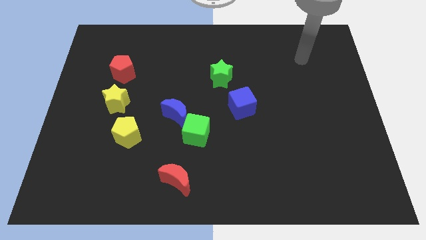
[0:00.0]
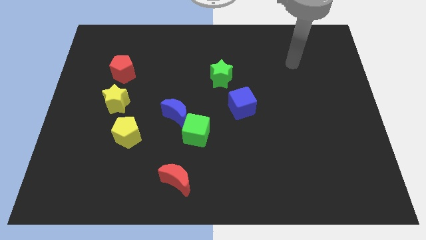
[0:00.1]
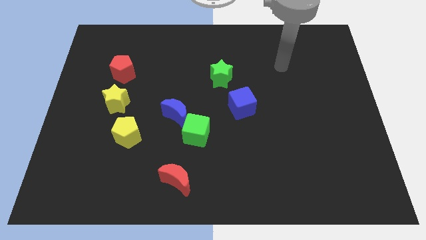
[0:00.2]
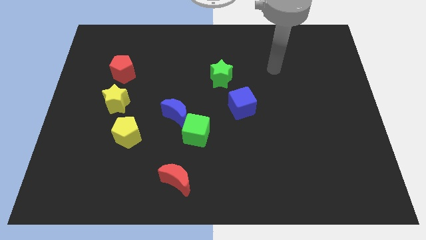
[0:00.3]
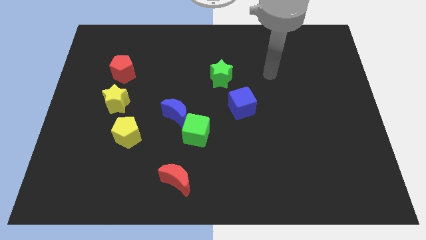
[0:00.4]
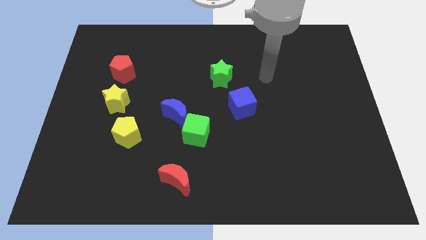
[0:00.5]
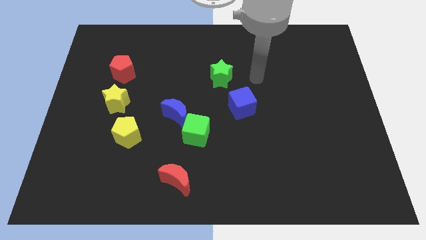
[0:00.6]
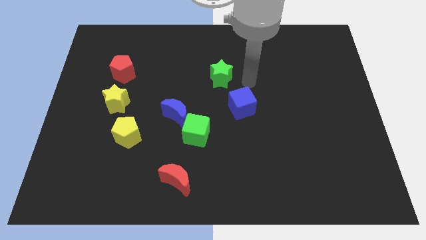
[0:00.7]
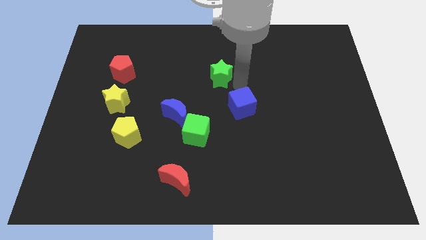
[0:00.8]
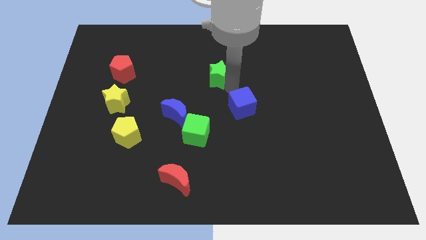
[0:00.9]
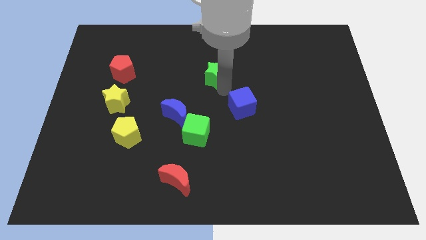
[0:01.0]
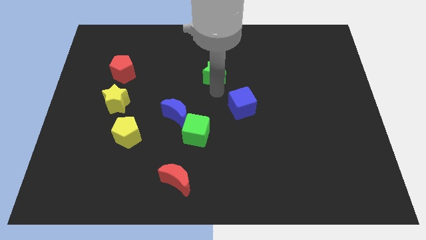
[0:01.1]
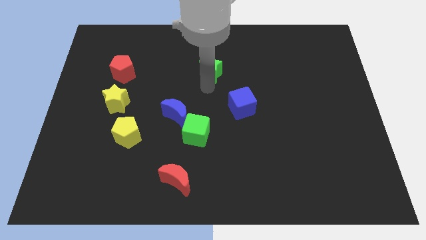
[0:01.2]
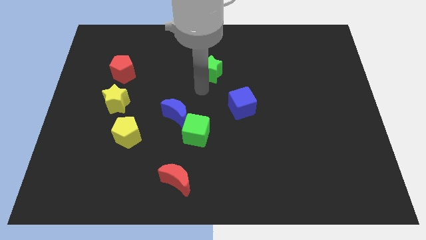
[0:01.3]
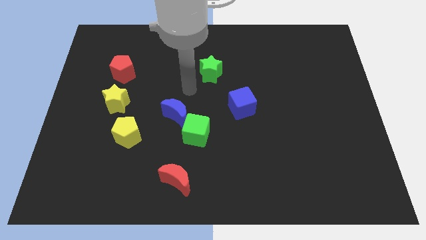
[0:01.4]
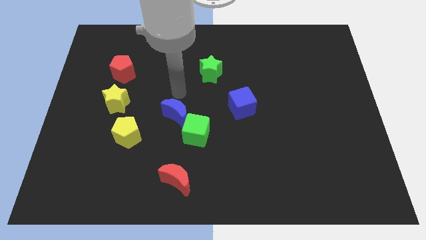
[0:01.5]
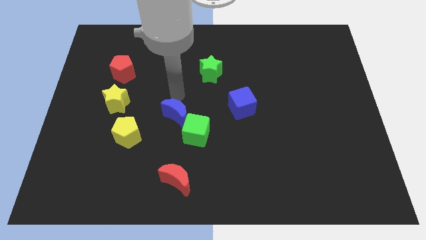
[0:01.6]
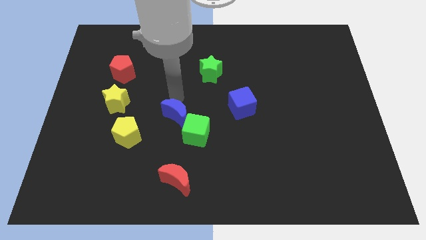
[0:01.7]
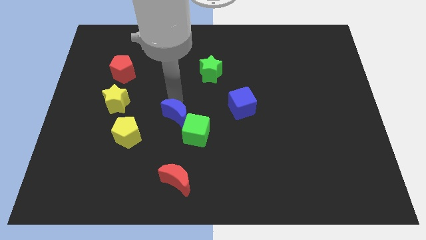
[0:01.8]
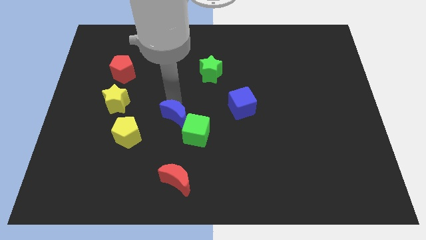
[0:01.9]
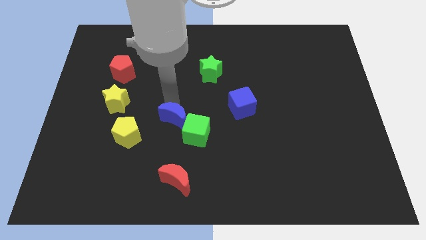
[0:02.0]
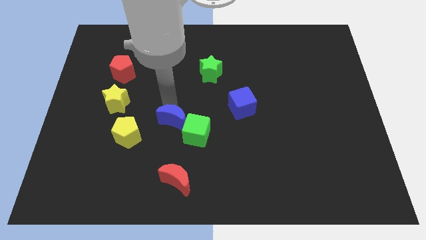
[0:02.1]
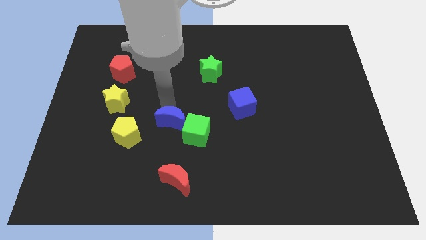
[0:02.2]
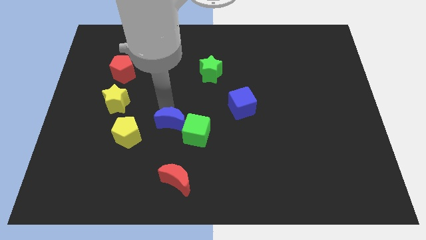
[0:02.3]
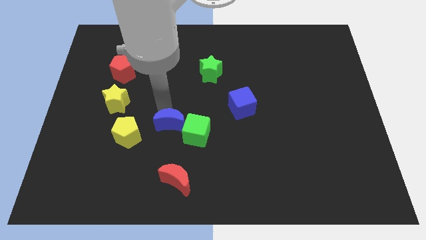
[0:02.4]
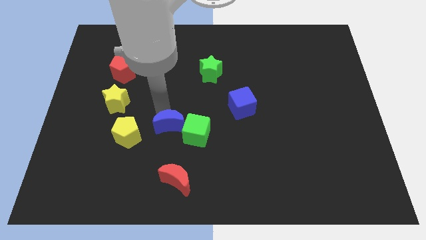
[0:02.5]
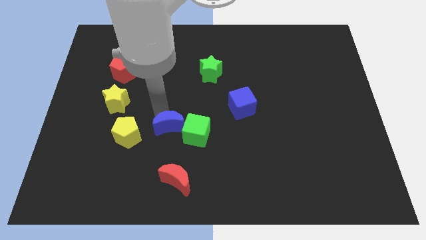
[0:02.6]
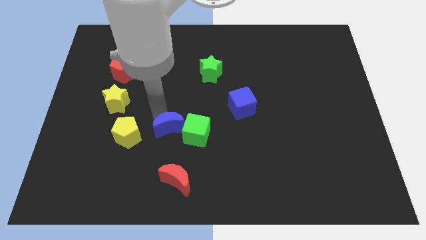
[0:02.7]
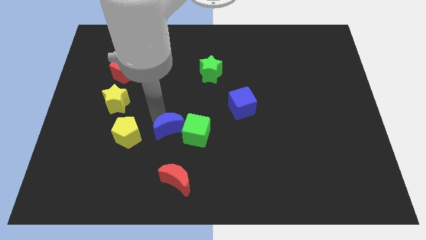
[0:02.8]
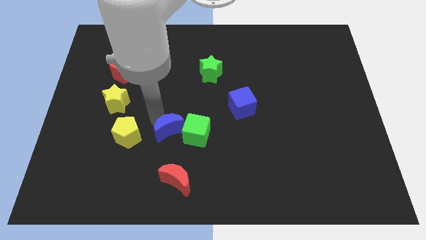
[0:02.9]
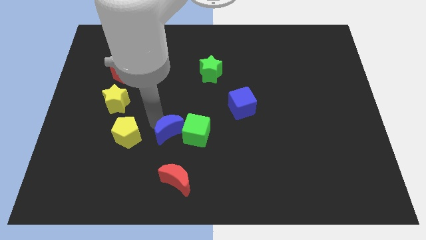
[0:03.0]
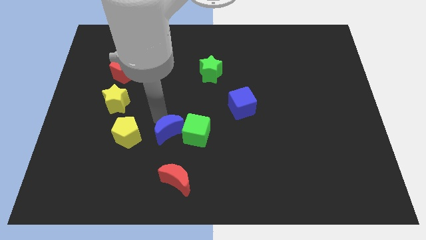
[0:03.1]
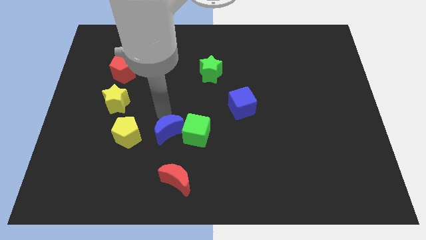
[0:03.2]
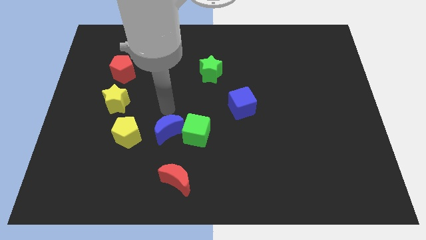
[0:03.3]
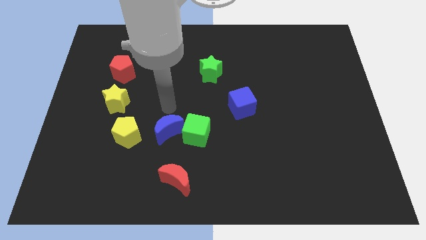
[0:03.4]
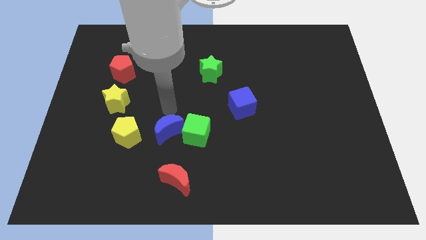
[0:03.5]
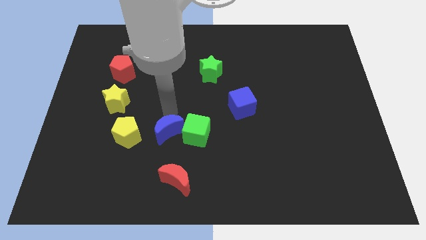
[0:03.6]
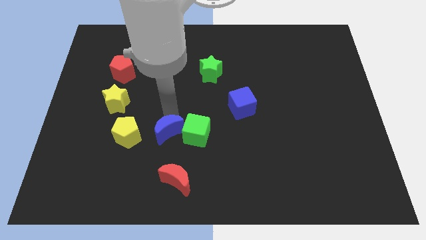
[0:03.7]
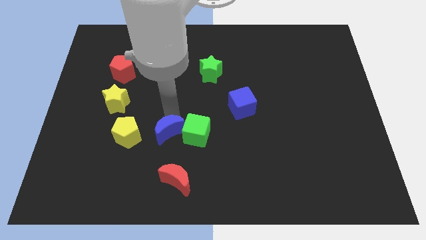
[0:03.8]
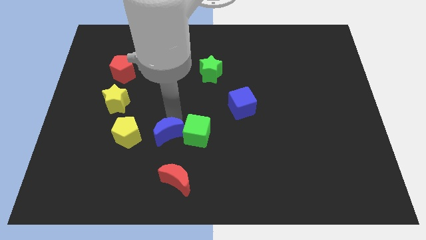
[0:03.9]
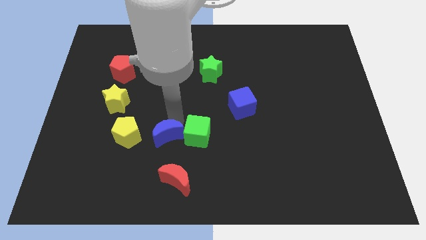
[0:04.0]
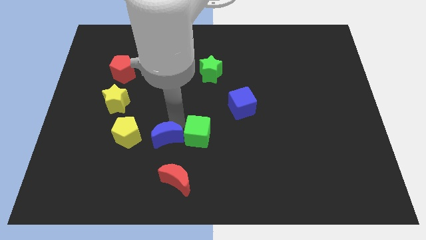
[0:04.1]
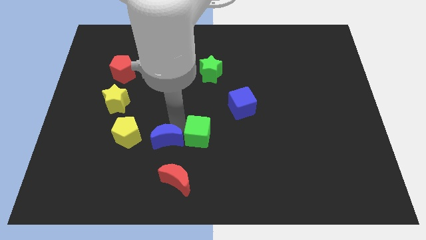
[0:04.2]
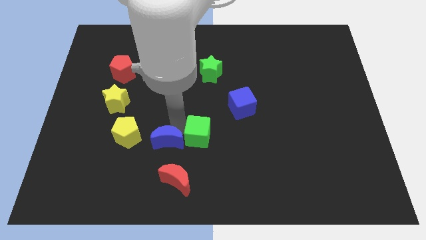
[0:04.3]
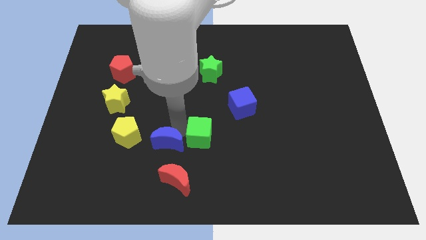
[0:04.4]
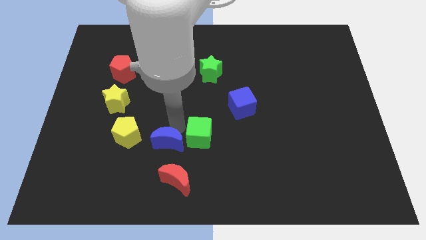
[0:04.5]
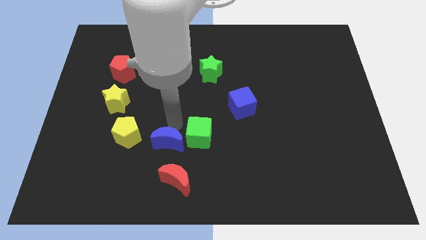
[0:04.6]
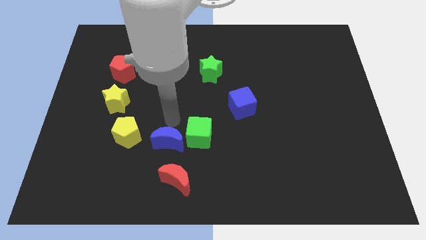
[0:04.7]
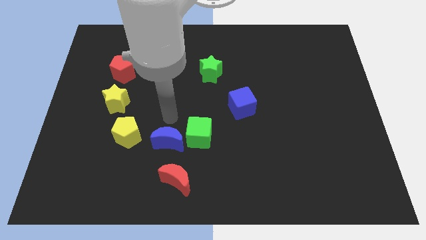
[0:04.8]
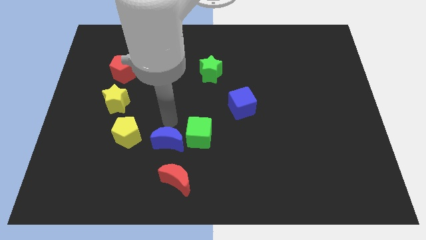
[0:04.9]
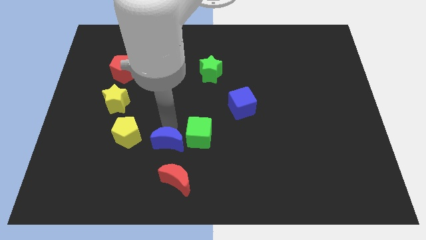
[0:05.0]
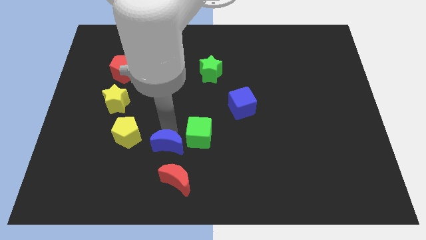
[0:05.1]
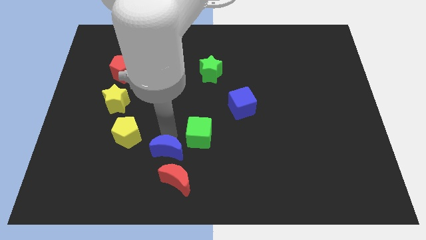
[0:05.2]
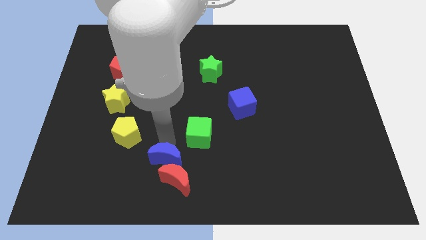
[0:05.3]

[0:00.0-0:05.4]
slide the blue moon towards the red moon

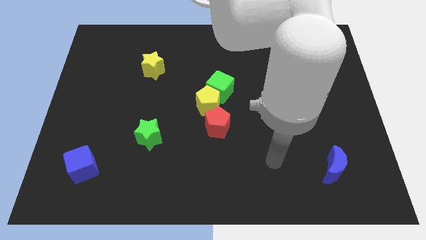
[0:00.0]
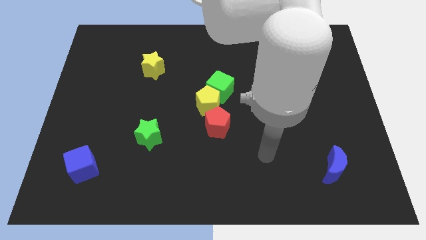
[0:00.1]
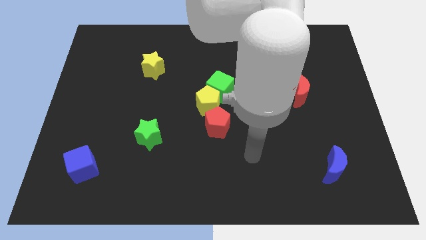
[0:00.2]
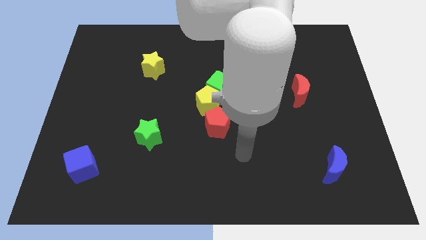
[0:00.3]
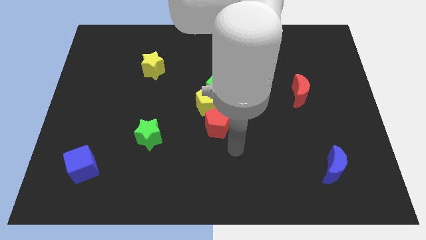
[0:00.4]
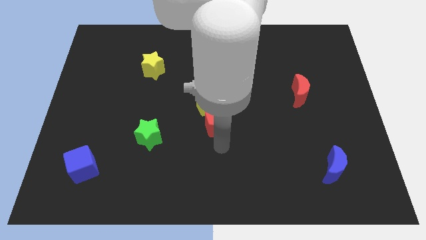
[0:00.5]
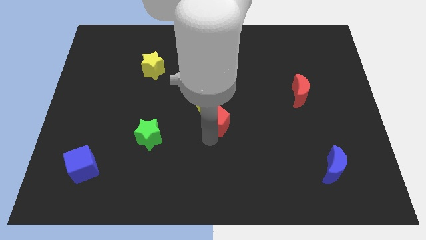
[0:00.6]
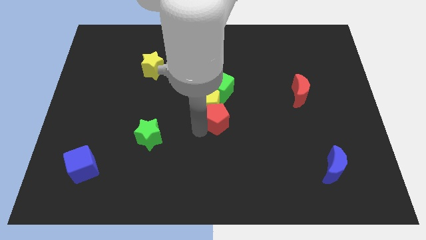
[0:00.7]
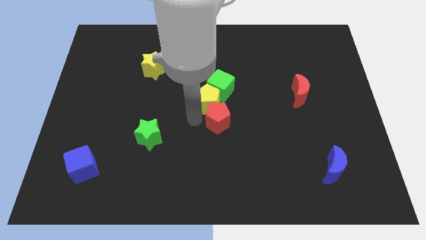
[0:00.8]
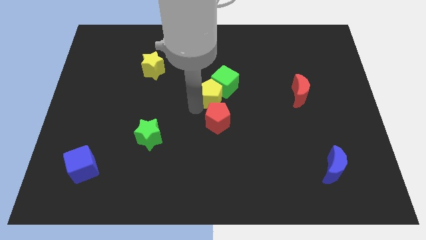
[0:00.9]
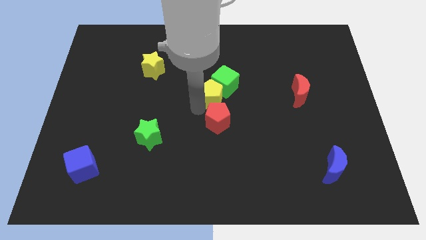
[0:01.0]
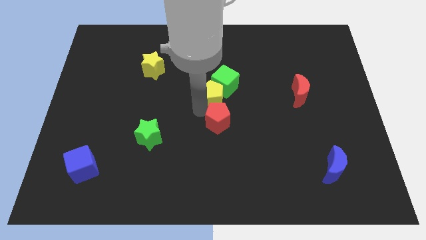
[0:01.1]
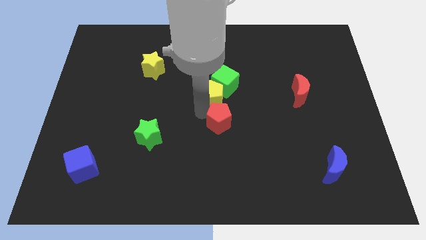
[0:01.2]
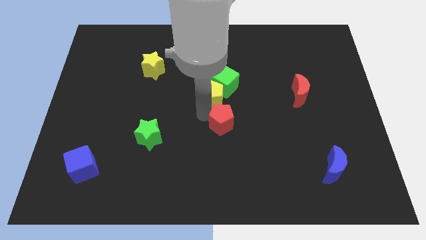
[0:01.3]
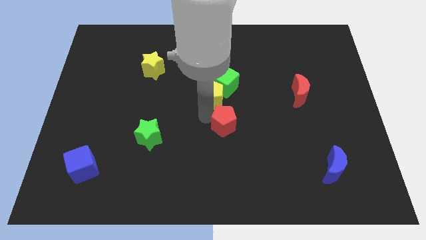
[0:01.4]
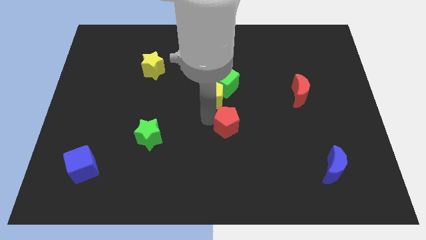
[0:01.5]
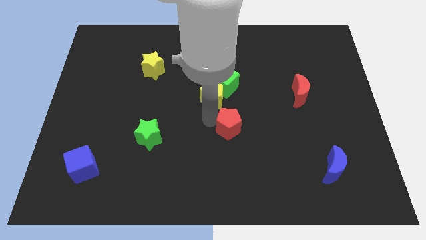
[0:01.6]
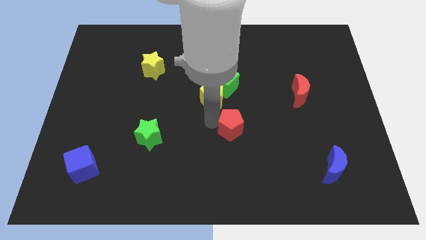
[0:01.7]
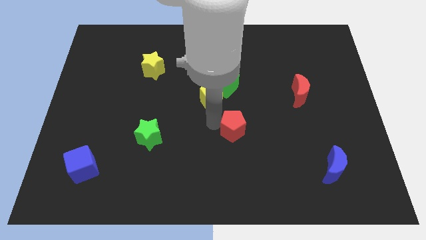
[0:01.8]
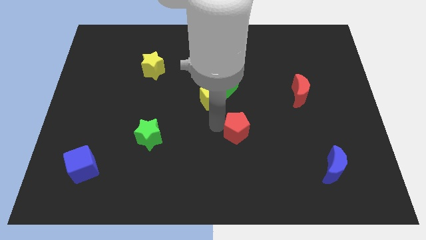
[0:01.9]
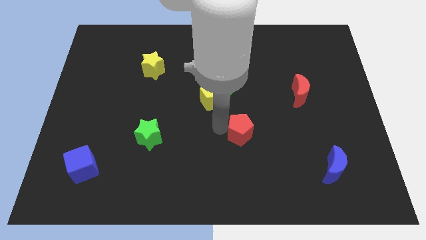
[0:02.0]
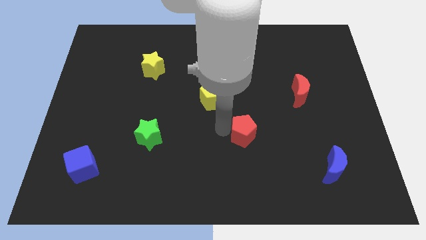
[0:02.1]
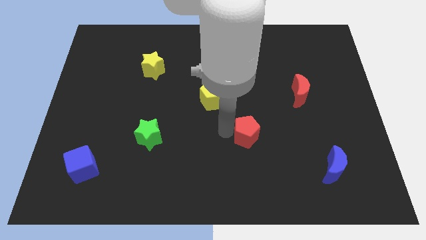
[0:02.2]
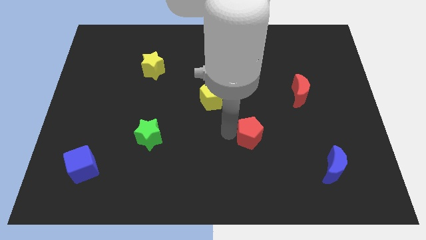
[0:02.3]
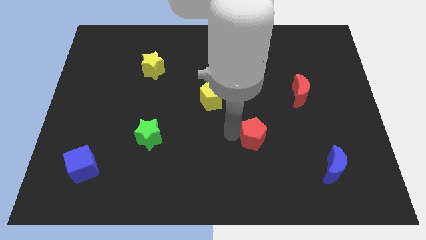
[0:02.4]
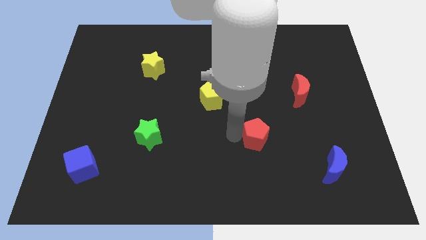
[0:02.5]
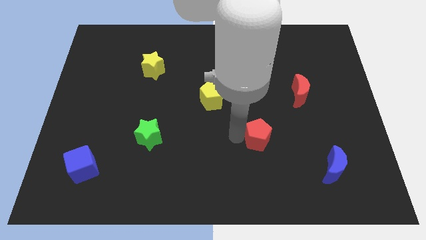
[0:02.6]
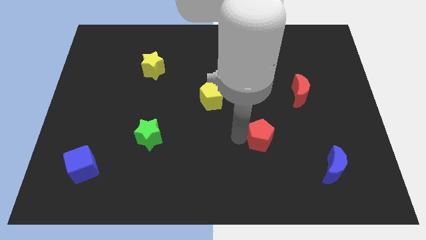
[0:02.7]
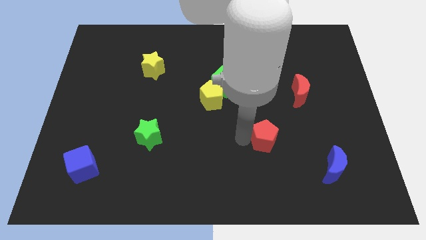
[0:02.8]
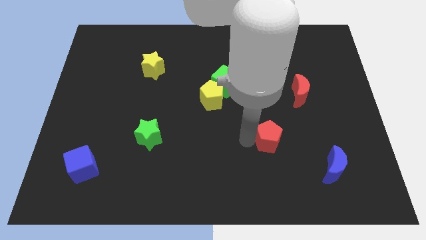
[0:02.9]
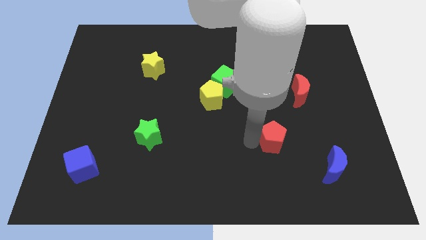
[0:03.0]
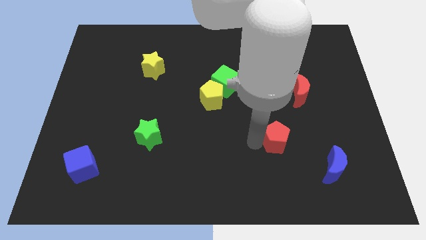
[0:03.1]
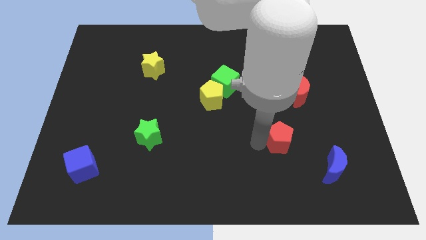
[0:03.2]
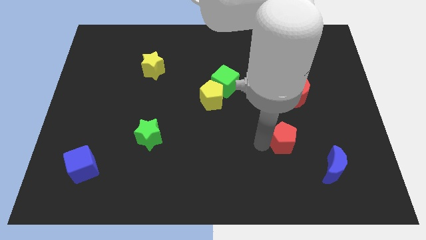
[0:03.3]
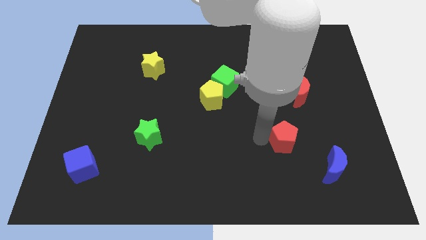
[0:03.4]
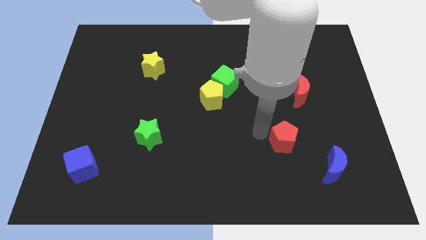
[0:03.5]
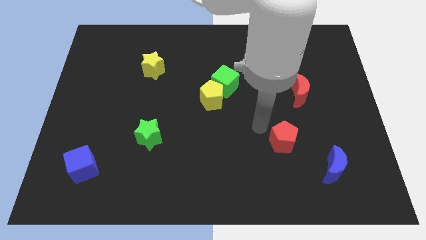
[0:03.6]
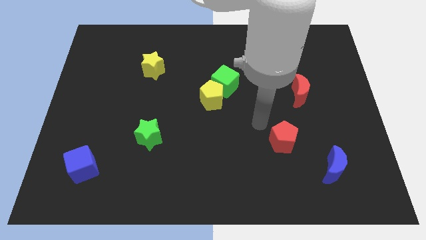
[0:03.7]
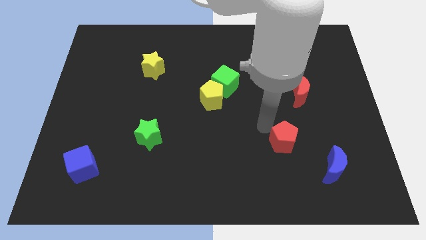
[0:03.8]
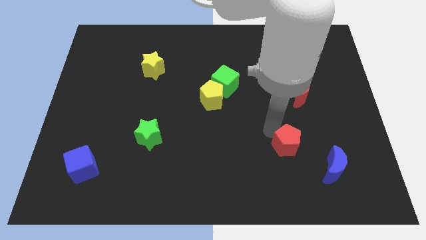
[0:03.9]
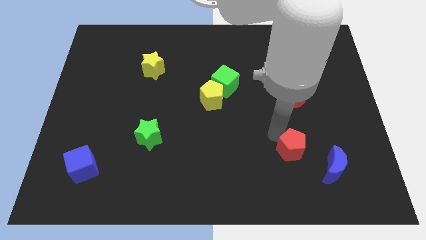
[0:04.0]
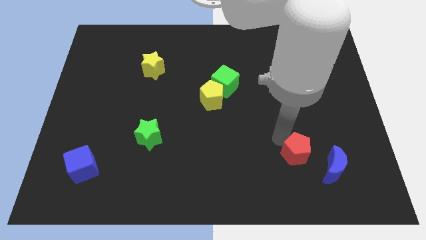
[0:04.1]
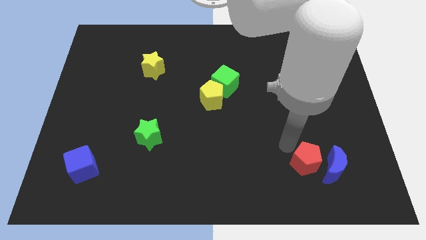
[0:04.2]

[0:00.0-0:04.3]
slide the red pentagon towards the blue moon
